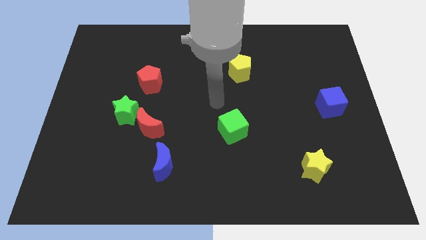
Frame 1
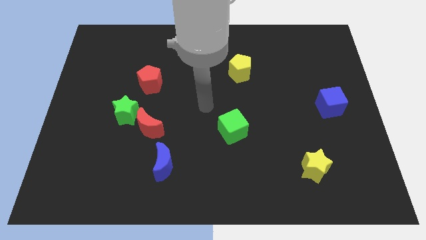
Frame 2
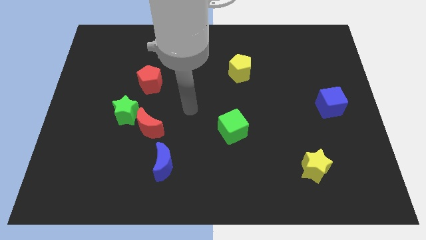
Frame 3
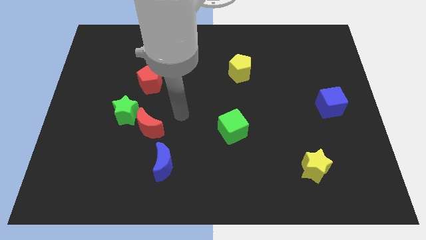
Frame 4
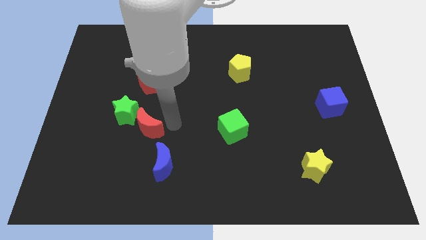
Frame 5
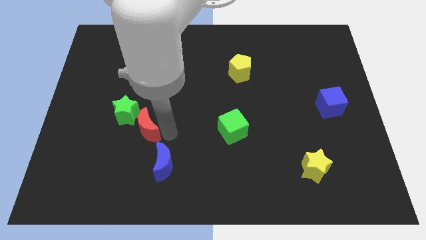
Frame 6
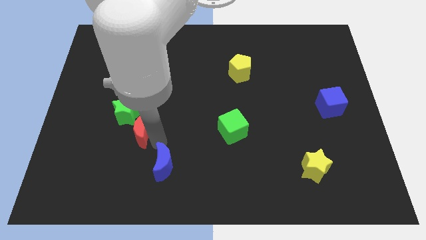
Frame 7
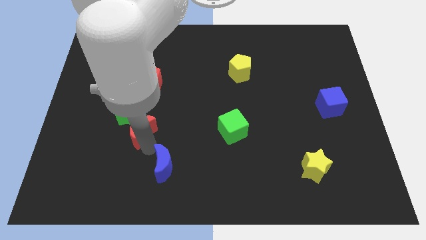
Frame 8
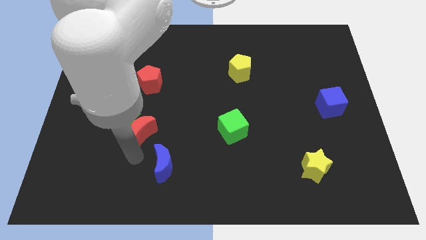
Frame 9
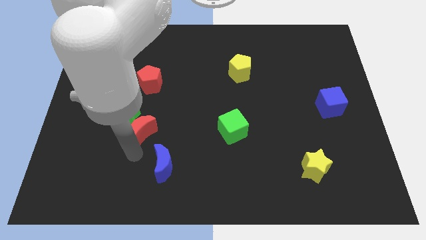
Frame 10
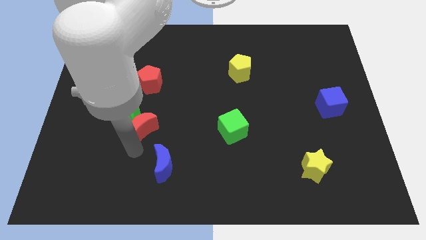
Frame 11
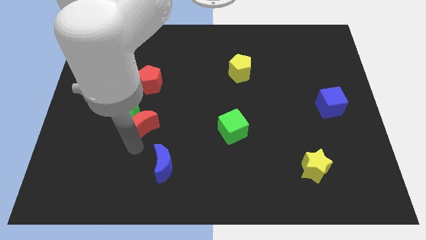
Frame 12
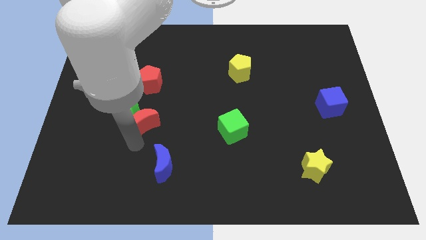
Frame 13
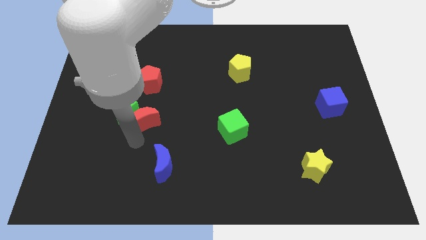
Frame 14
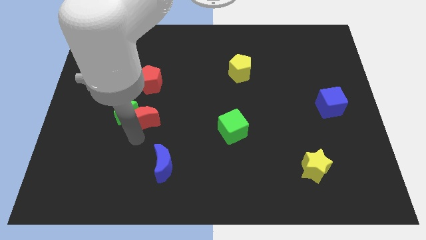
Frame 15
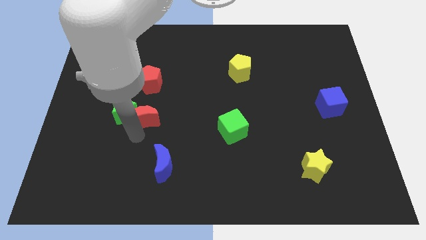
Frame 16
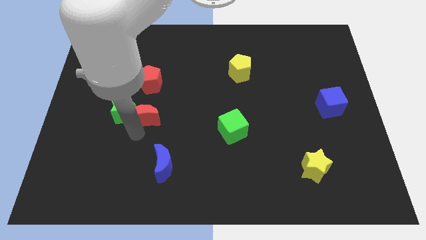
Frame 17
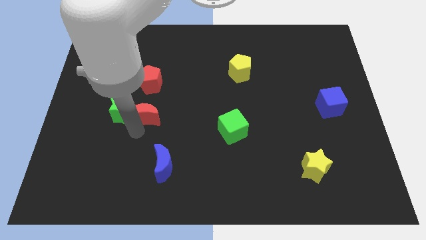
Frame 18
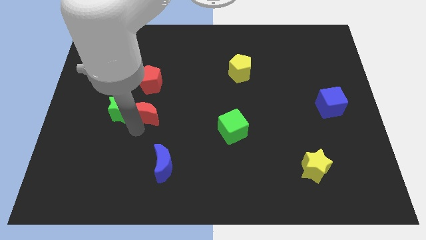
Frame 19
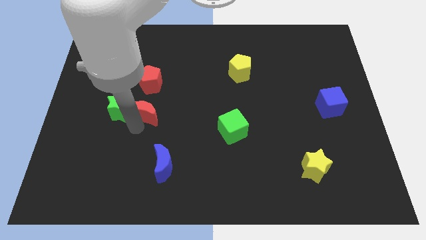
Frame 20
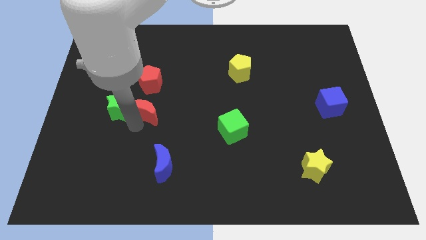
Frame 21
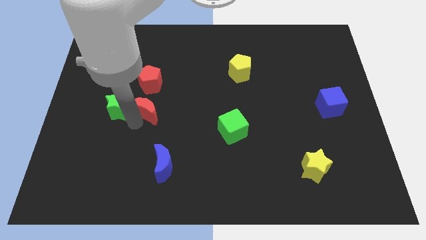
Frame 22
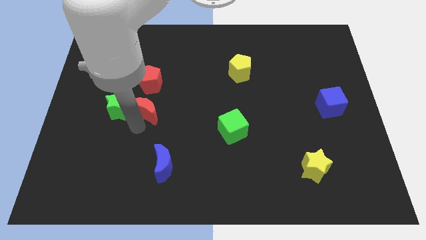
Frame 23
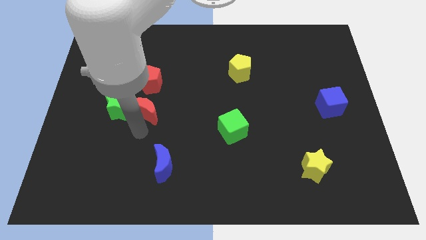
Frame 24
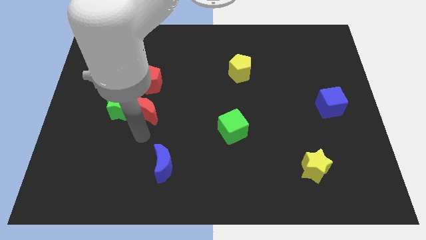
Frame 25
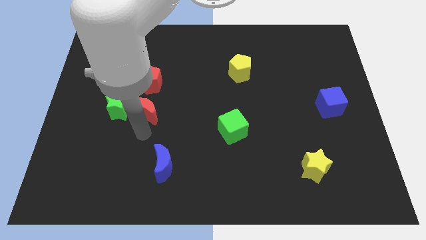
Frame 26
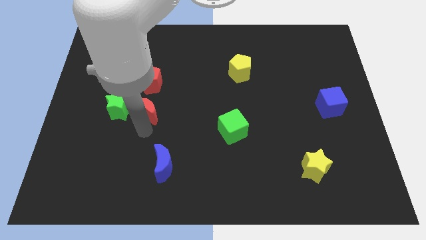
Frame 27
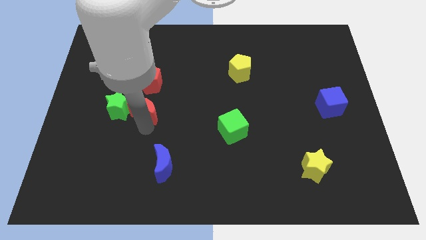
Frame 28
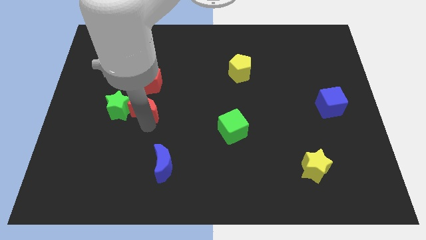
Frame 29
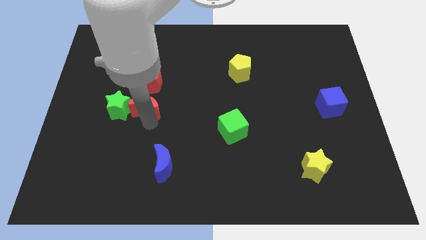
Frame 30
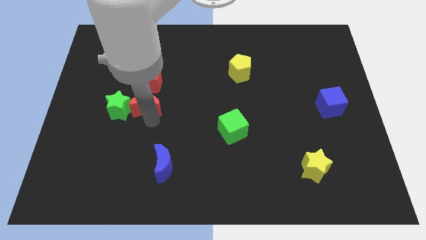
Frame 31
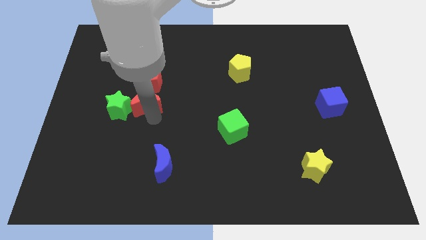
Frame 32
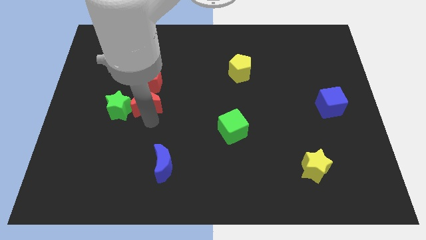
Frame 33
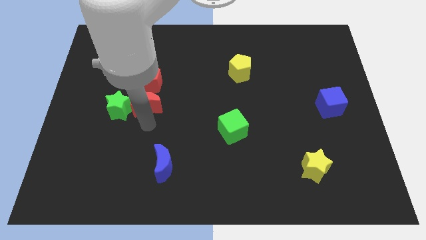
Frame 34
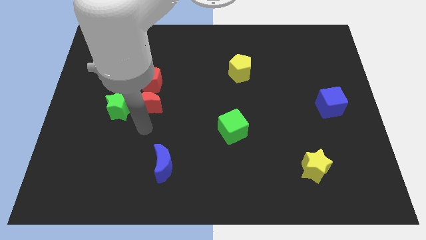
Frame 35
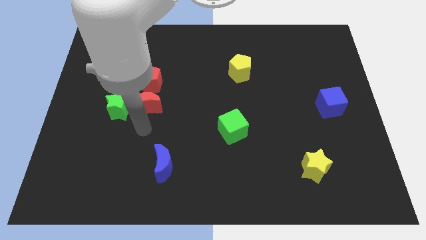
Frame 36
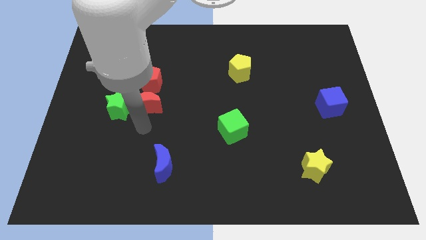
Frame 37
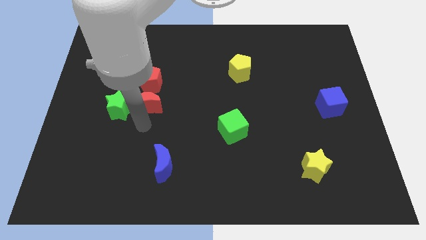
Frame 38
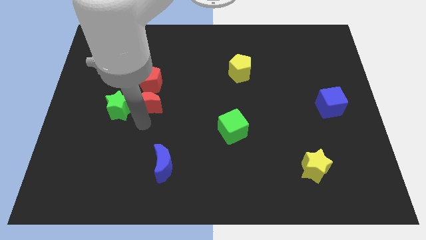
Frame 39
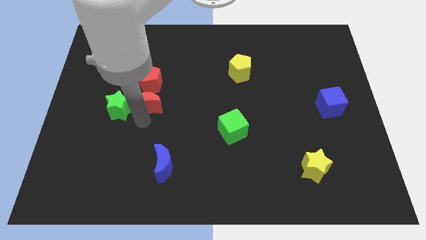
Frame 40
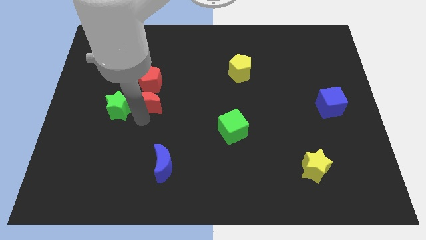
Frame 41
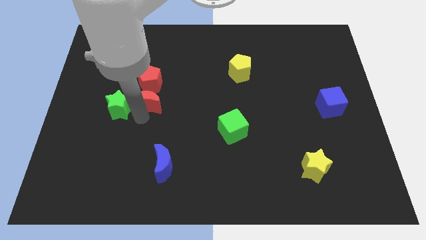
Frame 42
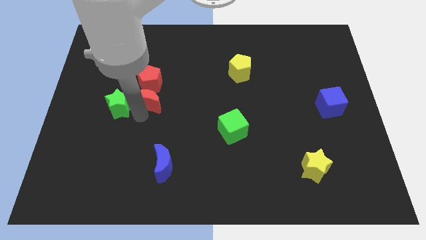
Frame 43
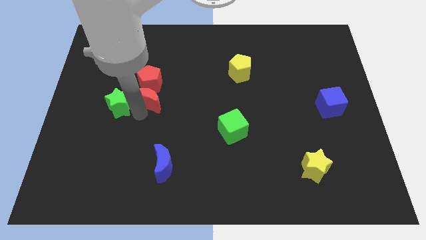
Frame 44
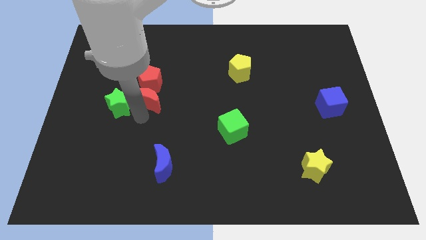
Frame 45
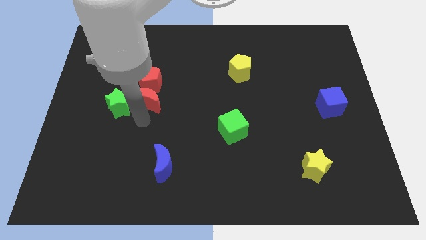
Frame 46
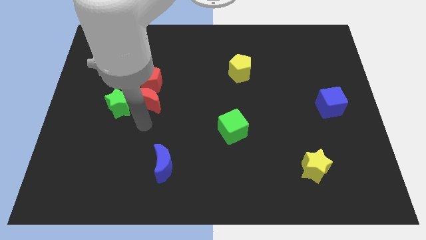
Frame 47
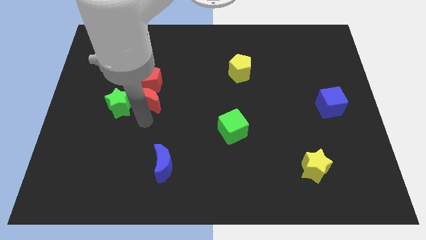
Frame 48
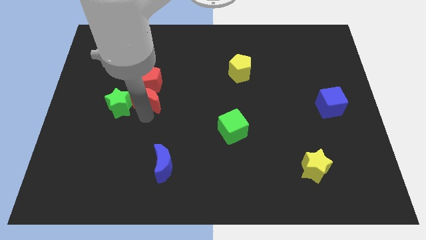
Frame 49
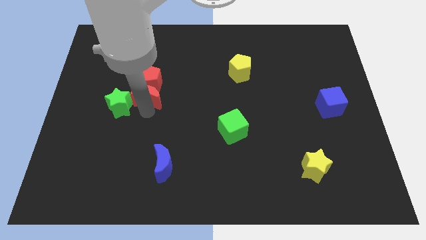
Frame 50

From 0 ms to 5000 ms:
move the red moon away from the green star and blue moon

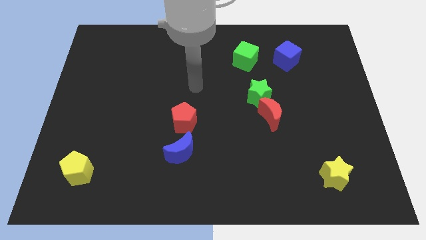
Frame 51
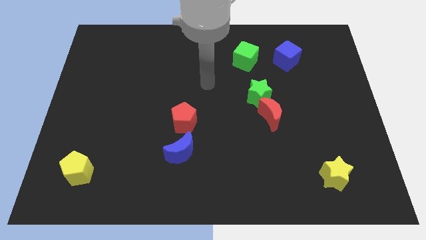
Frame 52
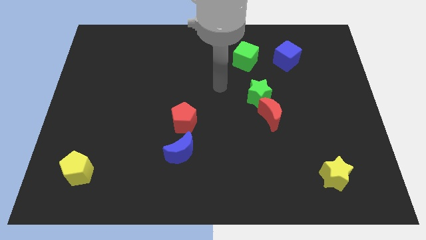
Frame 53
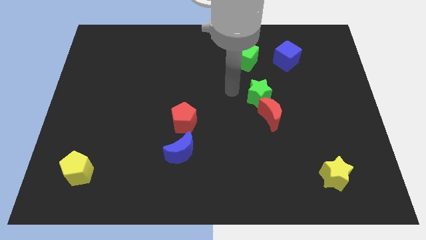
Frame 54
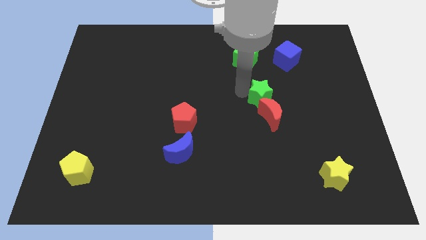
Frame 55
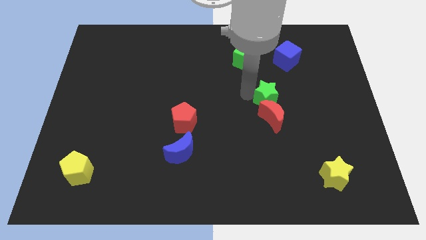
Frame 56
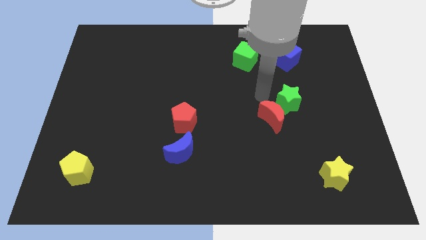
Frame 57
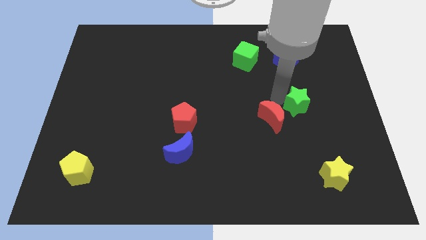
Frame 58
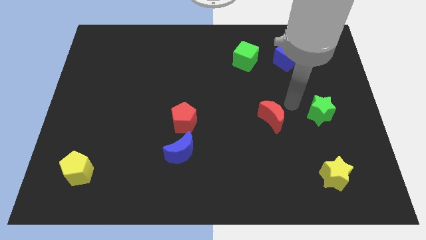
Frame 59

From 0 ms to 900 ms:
separate the red moon from the green star

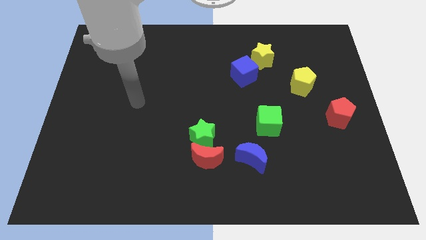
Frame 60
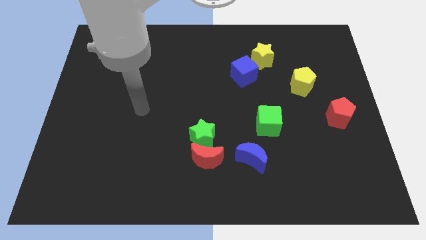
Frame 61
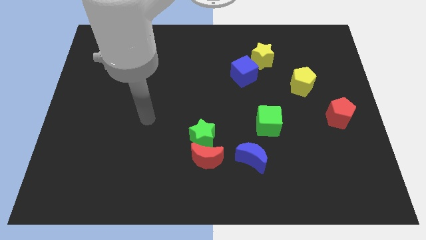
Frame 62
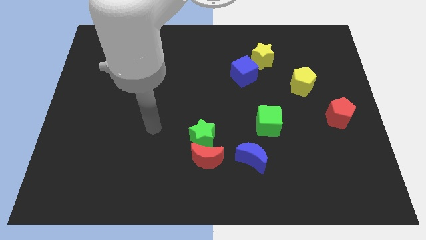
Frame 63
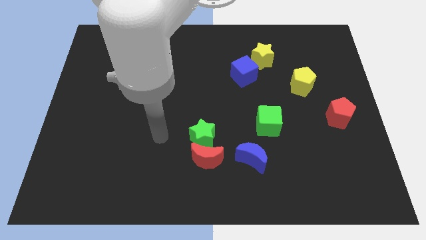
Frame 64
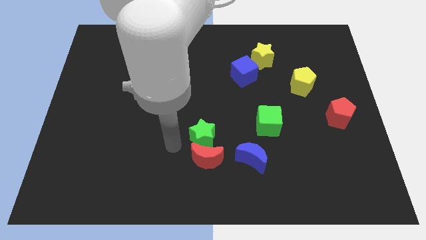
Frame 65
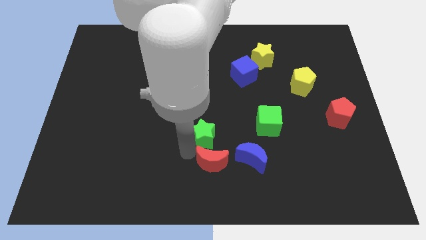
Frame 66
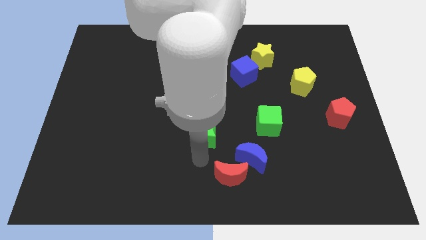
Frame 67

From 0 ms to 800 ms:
separate the green star from the red moon

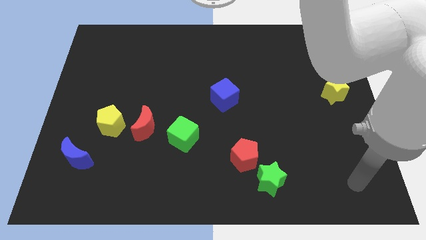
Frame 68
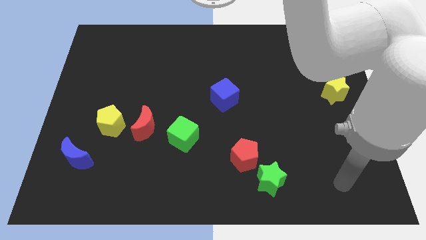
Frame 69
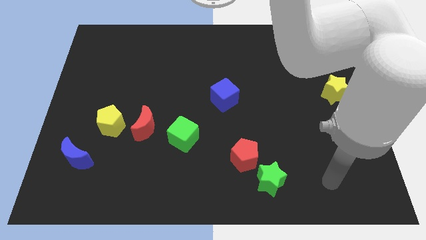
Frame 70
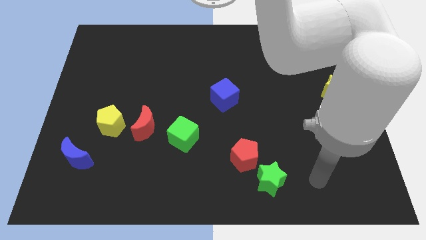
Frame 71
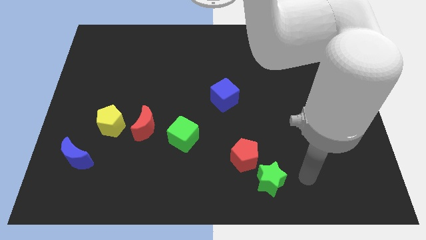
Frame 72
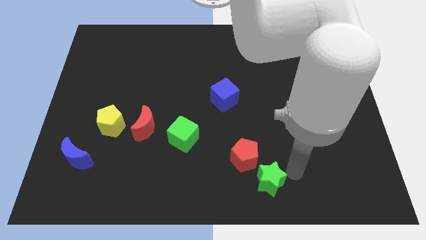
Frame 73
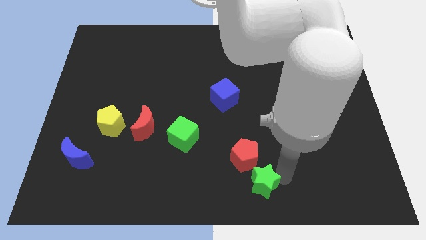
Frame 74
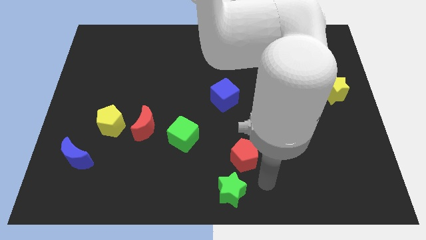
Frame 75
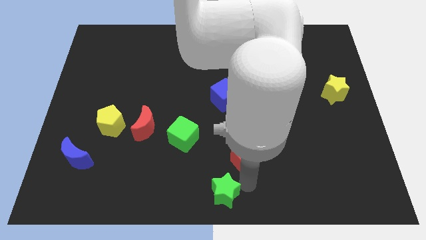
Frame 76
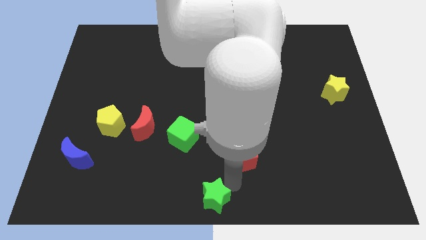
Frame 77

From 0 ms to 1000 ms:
move the red pentagon away from the green star

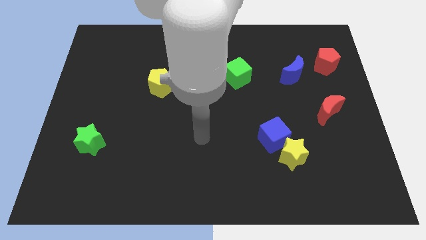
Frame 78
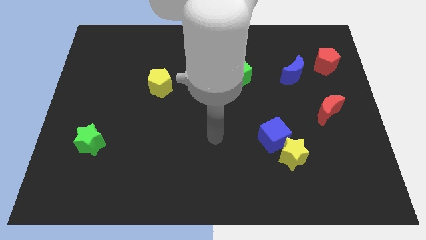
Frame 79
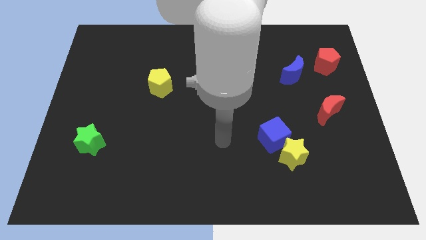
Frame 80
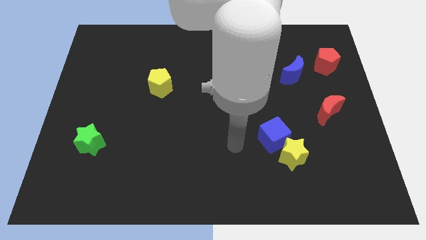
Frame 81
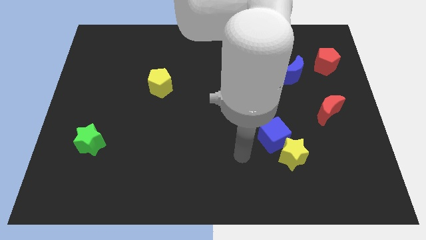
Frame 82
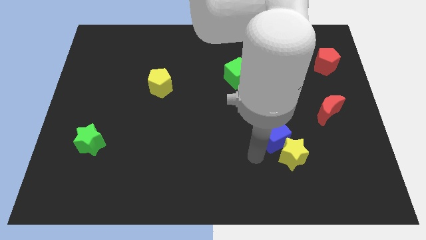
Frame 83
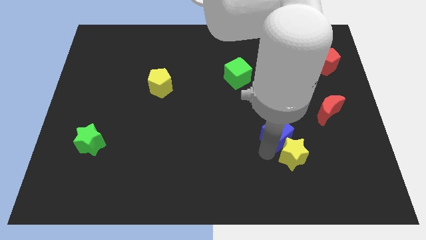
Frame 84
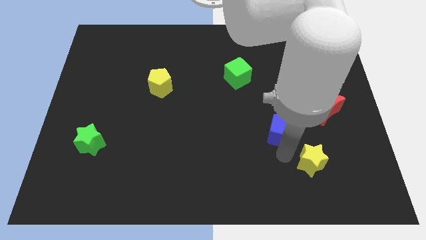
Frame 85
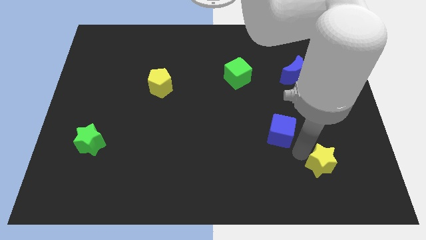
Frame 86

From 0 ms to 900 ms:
pull the blue cube apart from the yellow star

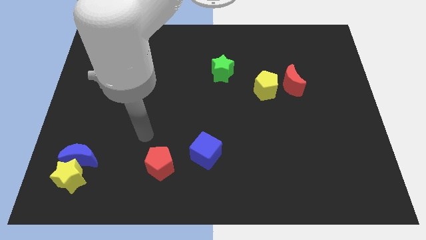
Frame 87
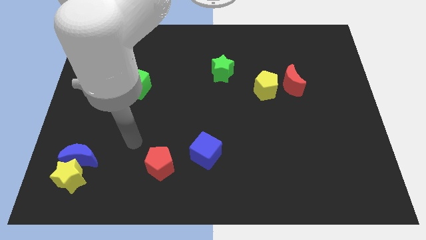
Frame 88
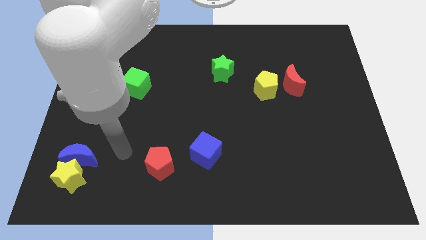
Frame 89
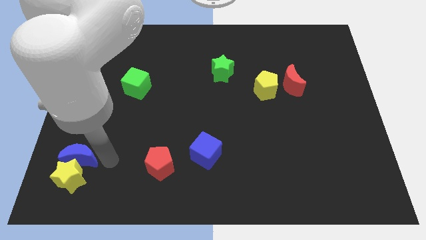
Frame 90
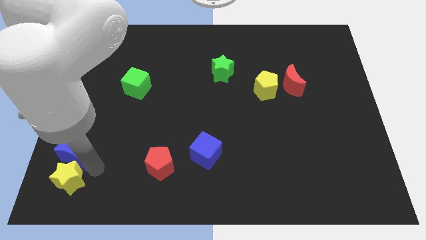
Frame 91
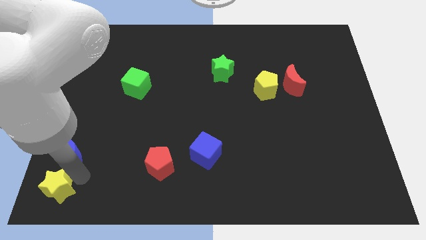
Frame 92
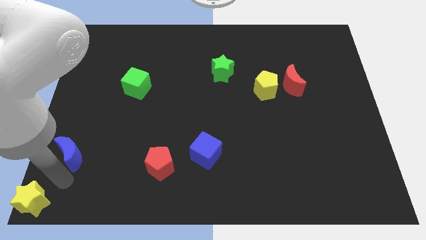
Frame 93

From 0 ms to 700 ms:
move the blue moon away from the yellow star
